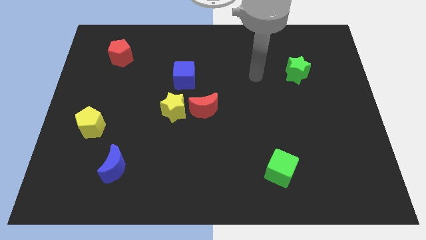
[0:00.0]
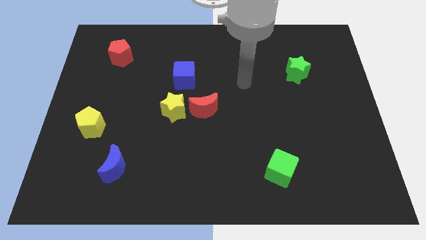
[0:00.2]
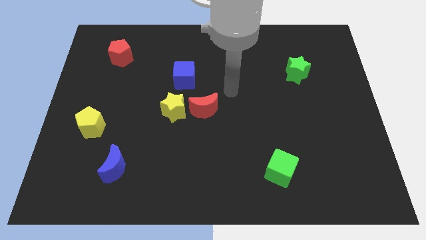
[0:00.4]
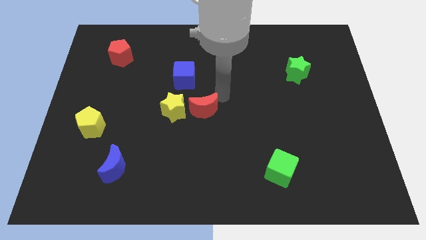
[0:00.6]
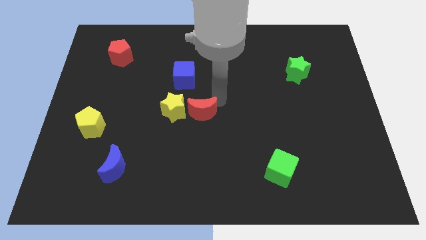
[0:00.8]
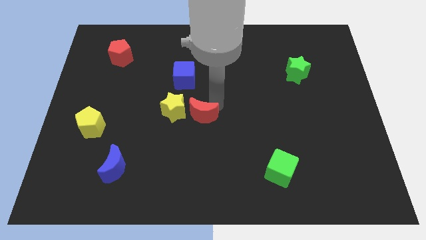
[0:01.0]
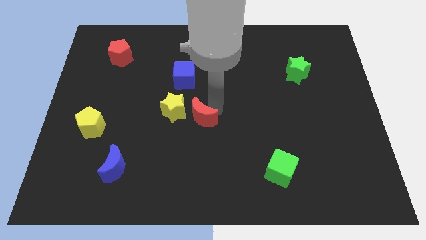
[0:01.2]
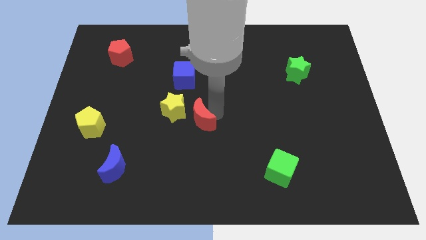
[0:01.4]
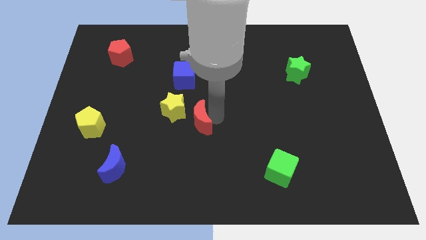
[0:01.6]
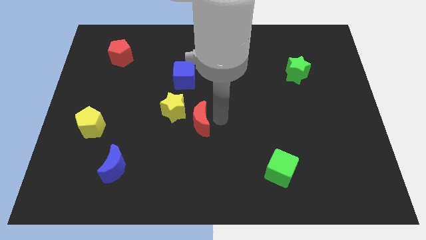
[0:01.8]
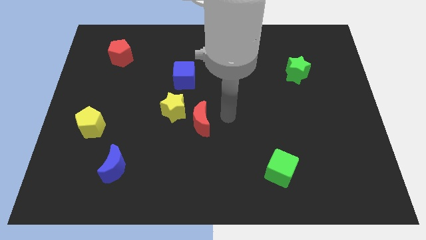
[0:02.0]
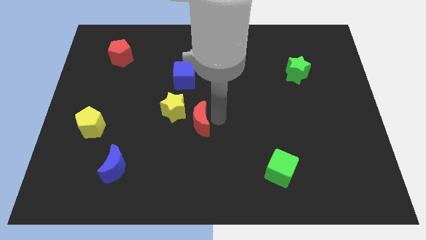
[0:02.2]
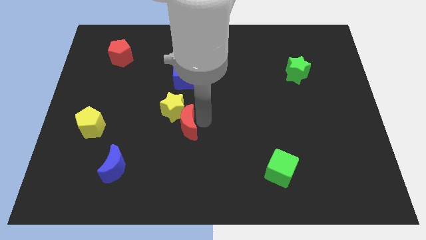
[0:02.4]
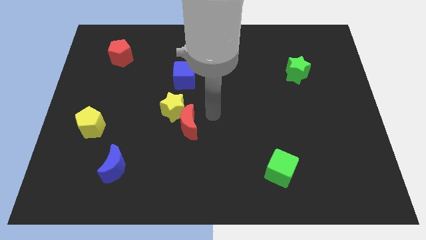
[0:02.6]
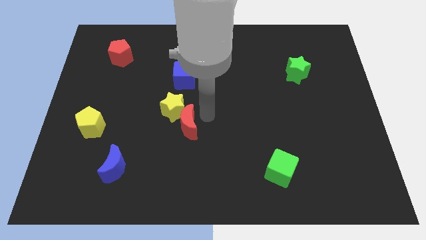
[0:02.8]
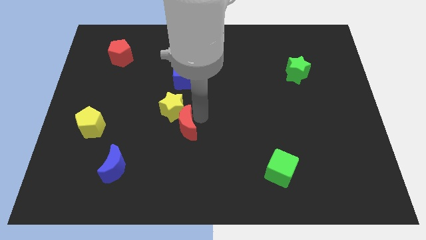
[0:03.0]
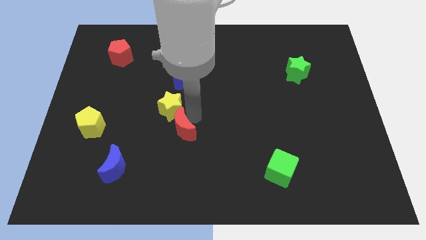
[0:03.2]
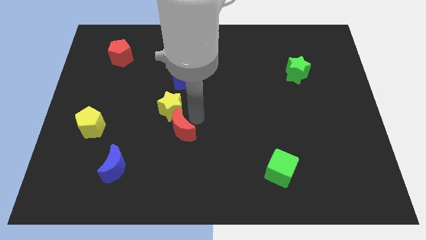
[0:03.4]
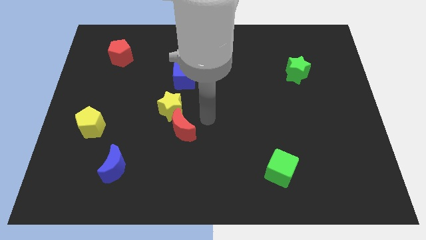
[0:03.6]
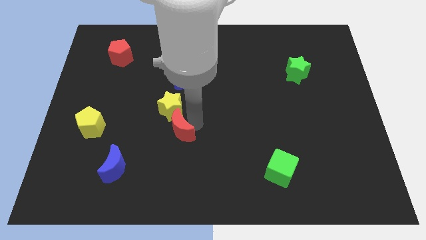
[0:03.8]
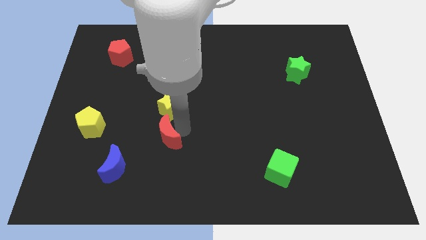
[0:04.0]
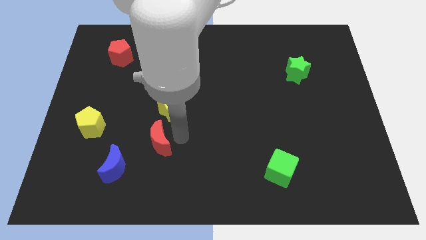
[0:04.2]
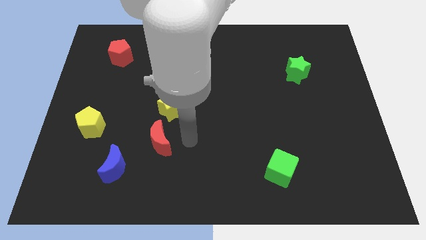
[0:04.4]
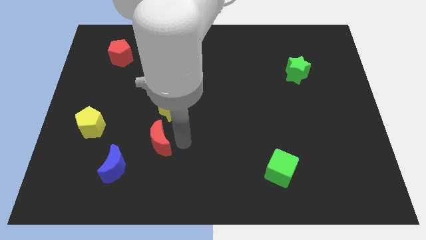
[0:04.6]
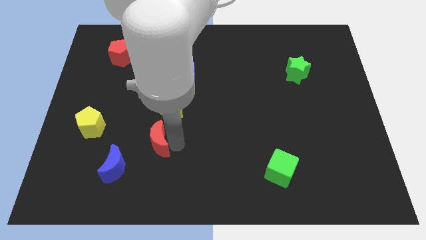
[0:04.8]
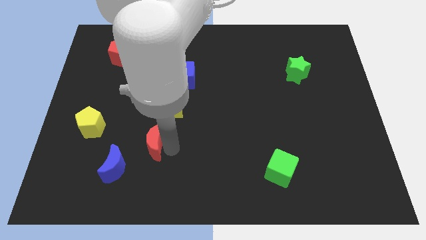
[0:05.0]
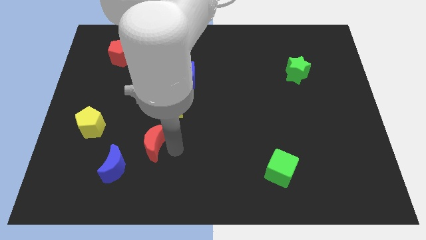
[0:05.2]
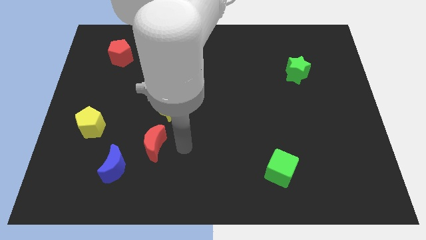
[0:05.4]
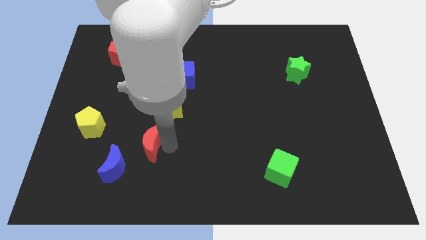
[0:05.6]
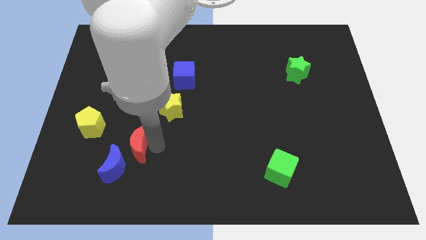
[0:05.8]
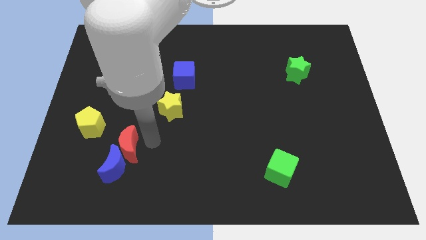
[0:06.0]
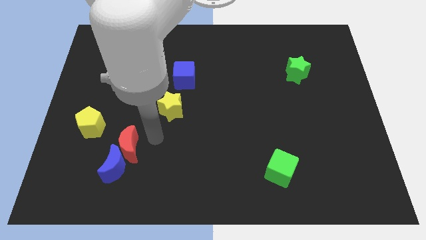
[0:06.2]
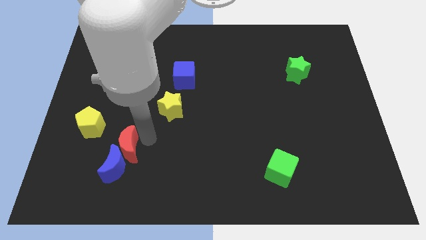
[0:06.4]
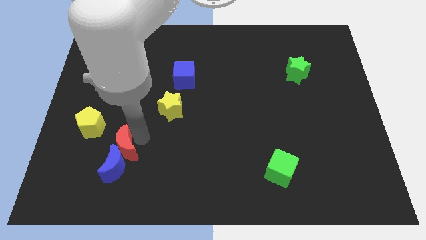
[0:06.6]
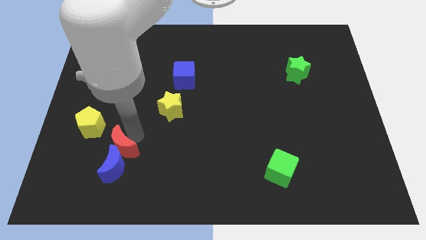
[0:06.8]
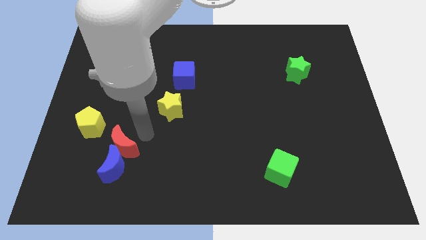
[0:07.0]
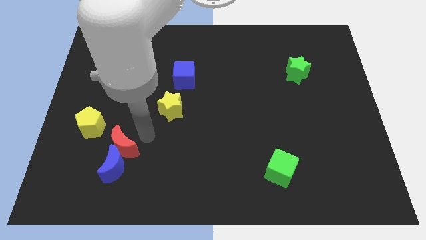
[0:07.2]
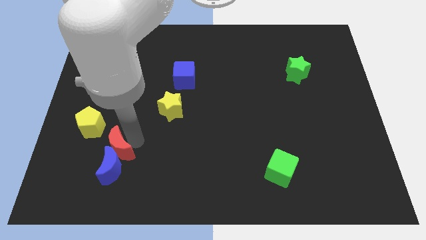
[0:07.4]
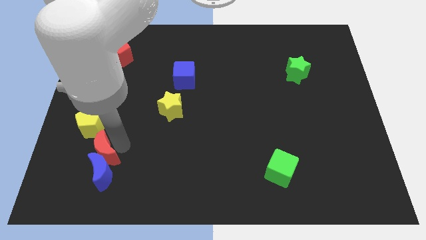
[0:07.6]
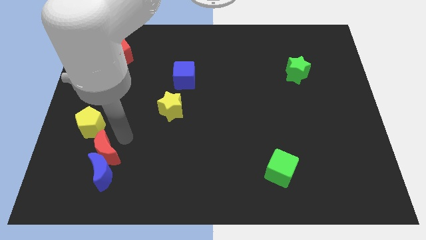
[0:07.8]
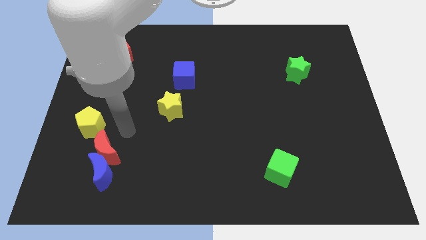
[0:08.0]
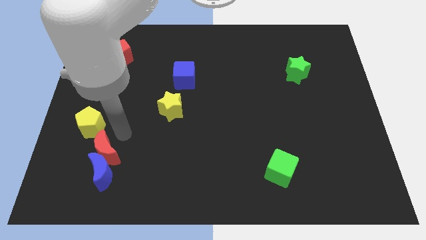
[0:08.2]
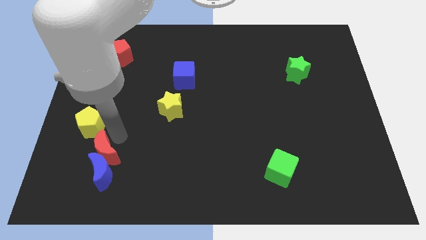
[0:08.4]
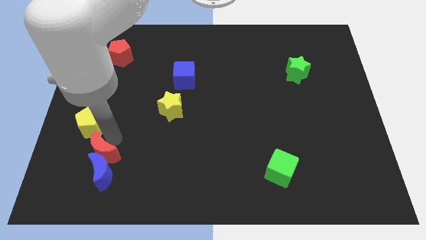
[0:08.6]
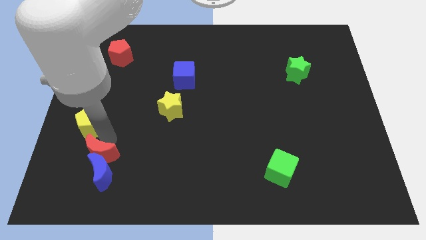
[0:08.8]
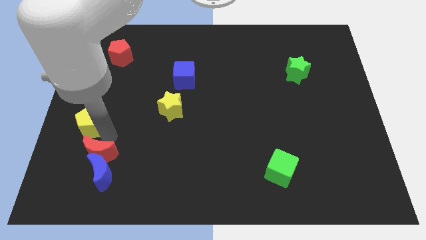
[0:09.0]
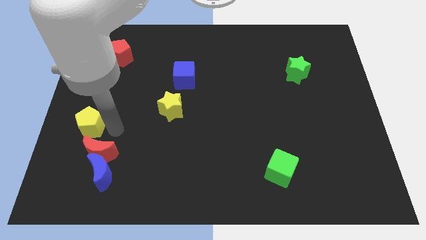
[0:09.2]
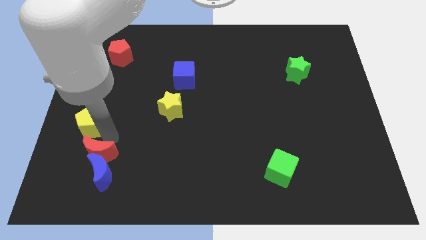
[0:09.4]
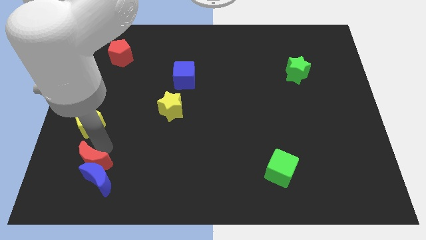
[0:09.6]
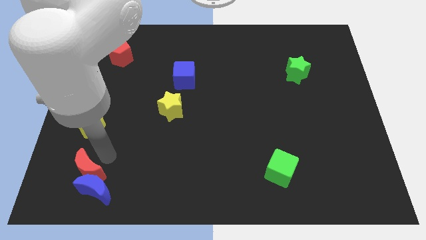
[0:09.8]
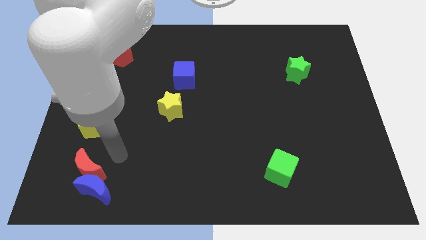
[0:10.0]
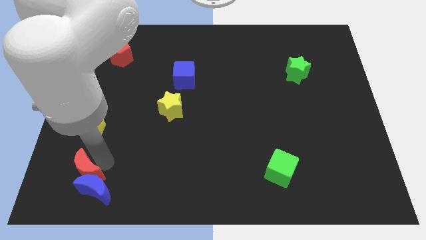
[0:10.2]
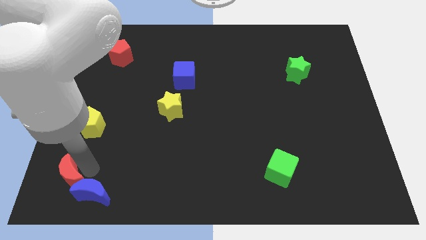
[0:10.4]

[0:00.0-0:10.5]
push the red moon to the bottom left of the board

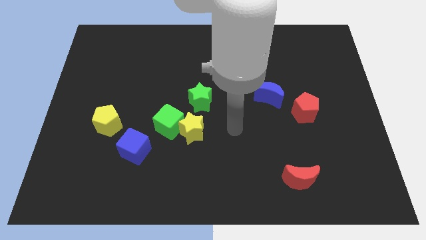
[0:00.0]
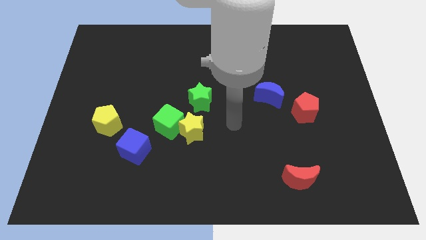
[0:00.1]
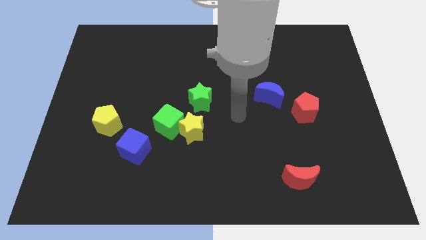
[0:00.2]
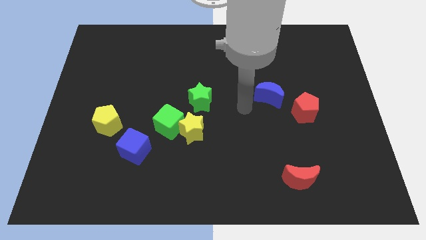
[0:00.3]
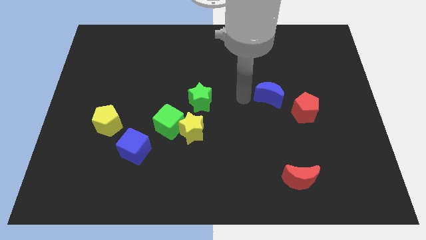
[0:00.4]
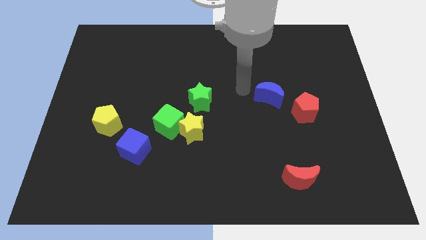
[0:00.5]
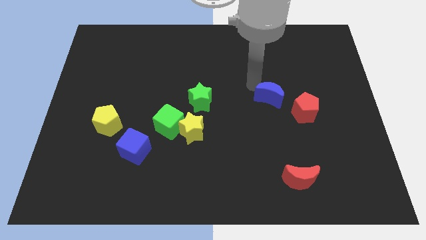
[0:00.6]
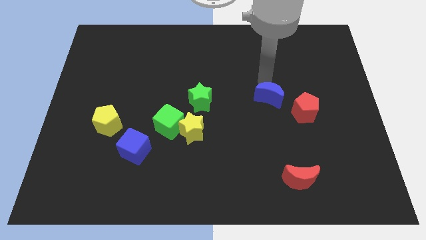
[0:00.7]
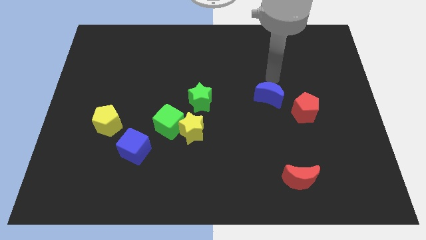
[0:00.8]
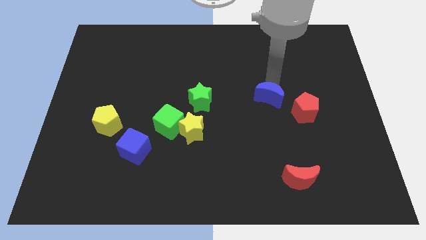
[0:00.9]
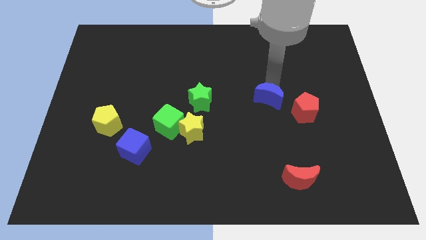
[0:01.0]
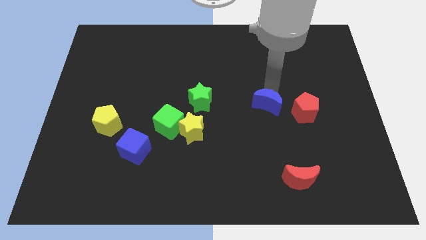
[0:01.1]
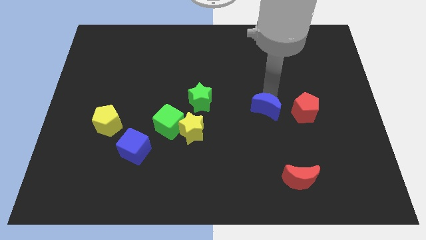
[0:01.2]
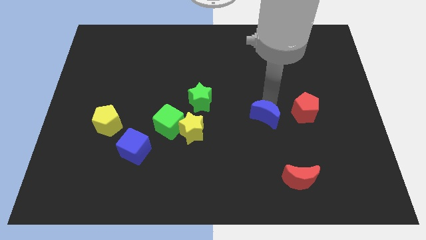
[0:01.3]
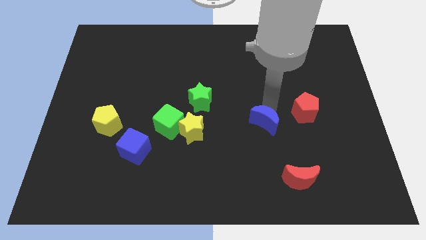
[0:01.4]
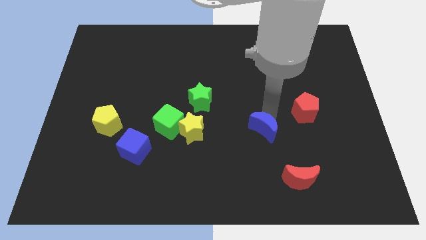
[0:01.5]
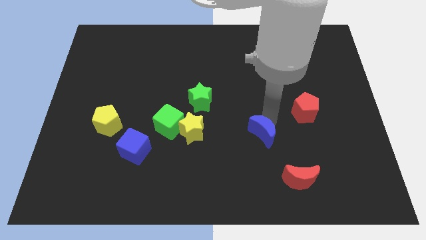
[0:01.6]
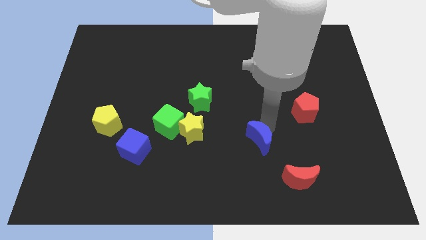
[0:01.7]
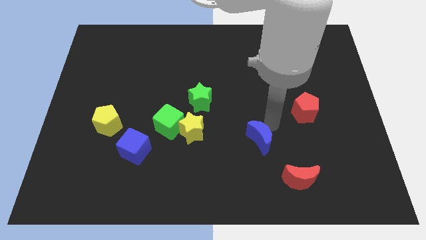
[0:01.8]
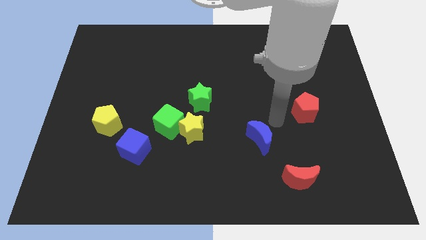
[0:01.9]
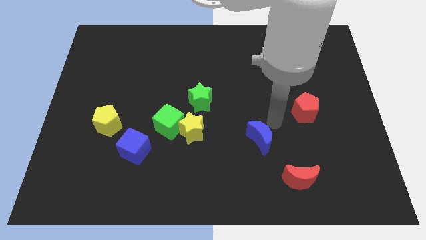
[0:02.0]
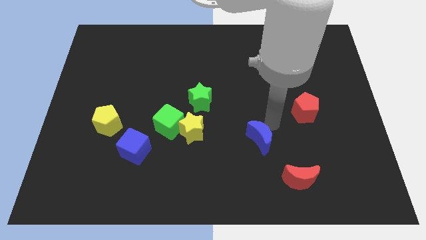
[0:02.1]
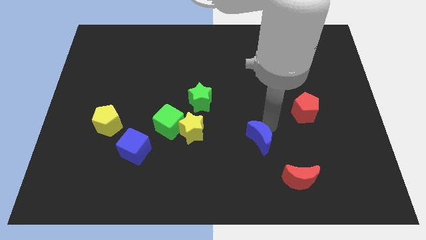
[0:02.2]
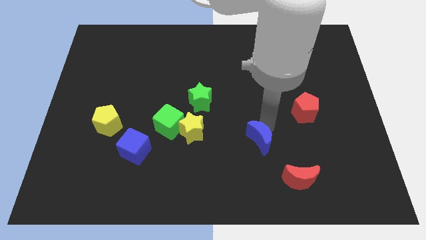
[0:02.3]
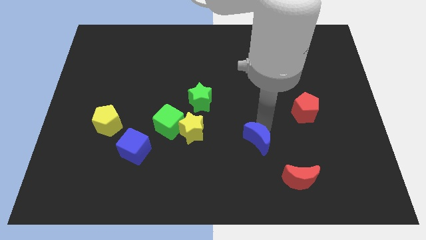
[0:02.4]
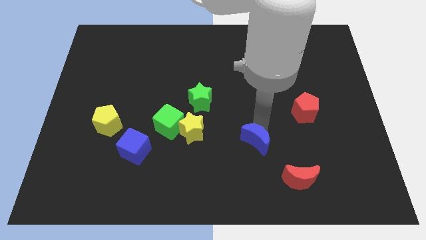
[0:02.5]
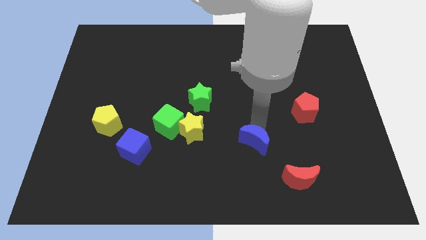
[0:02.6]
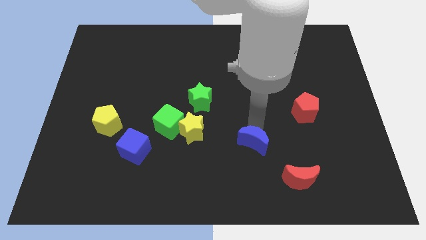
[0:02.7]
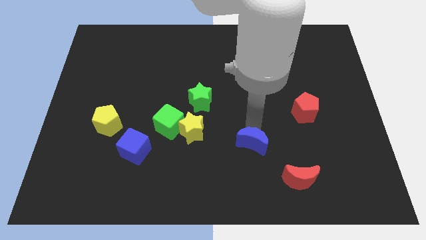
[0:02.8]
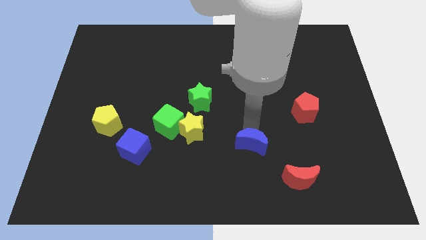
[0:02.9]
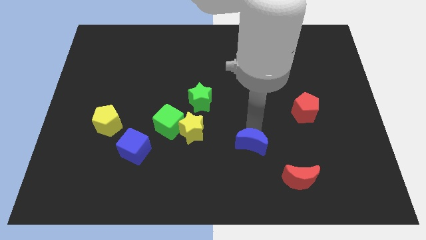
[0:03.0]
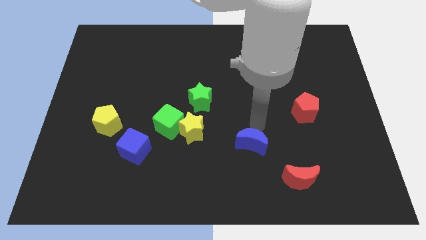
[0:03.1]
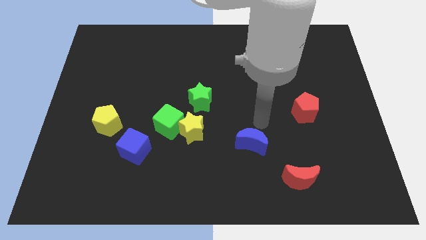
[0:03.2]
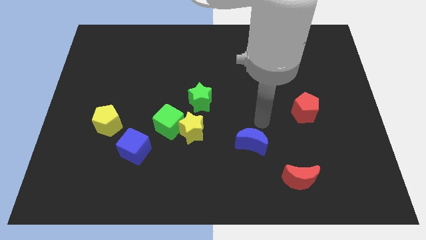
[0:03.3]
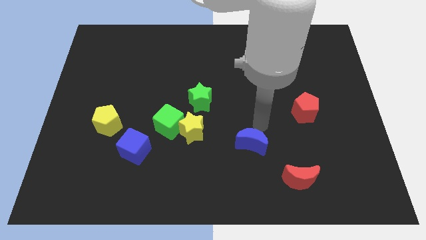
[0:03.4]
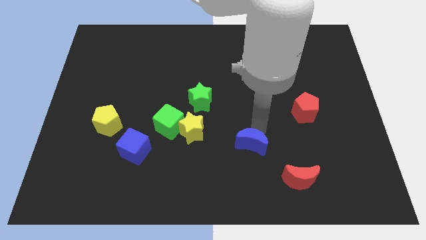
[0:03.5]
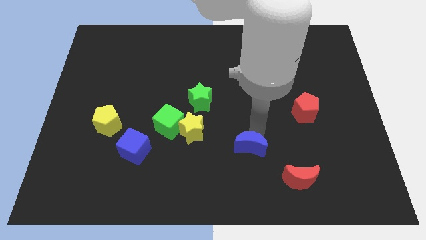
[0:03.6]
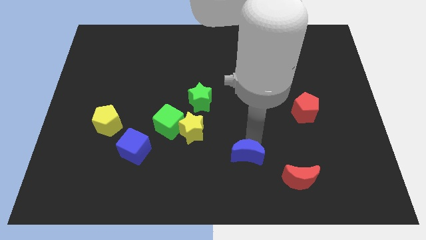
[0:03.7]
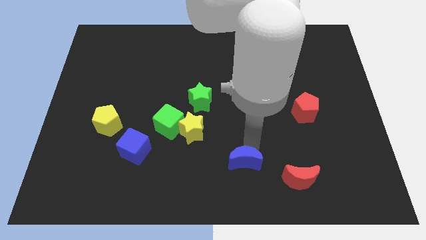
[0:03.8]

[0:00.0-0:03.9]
slide the blue moon to the bottom side
